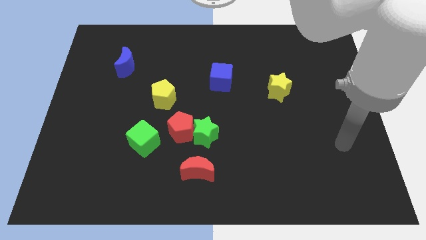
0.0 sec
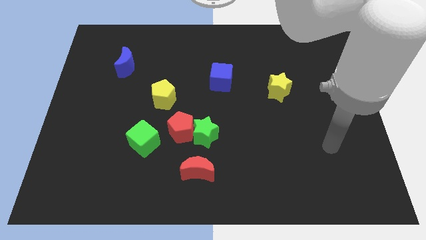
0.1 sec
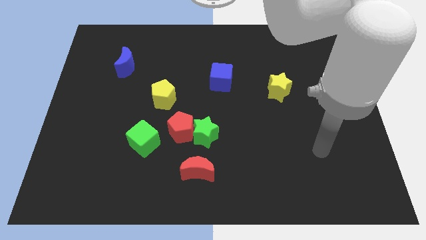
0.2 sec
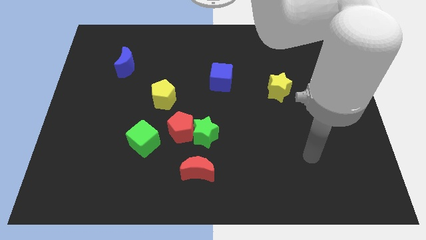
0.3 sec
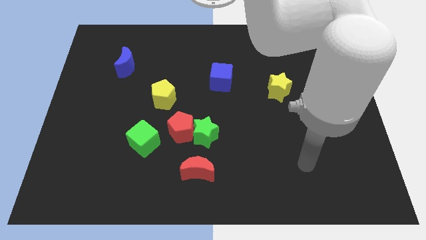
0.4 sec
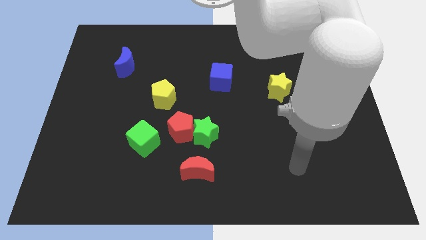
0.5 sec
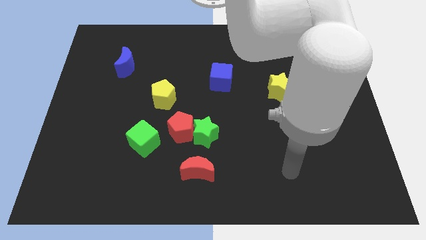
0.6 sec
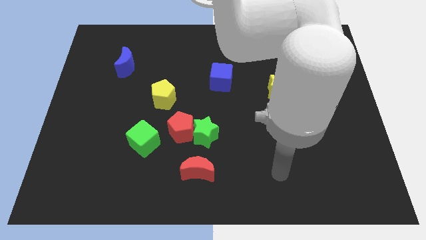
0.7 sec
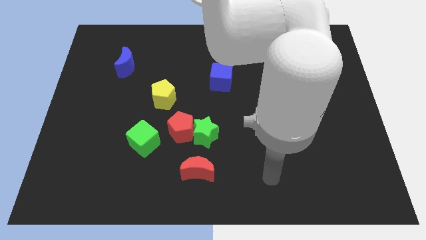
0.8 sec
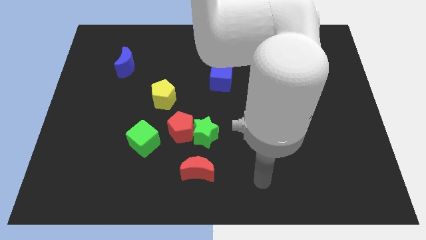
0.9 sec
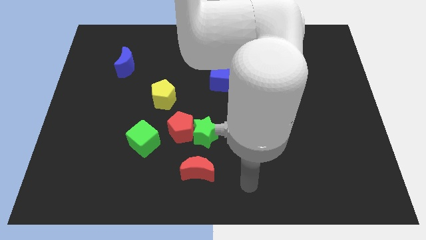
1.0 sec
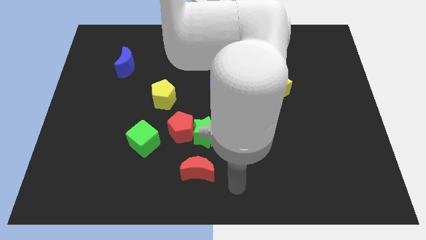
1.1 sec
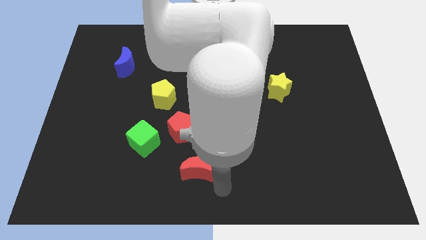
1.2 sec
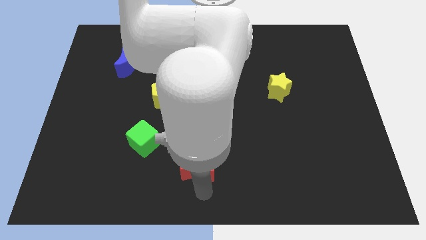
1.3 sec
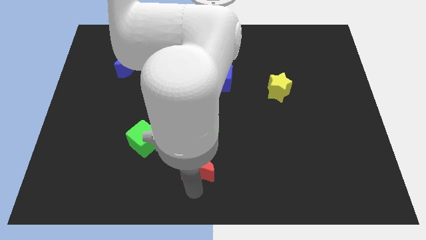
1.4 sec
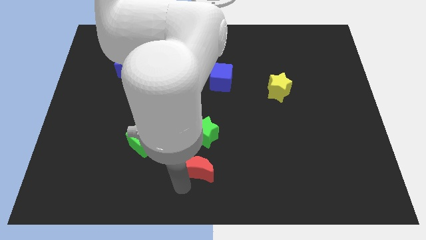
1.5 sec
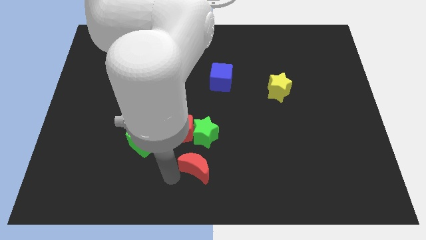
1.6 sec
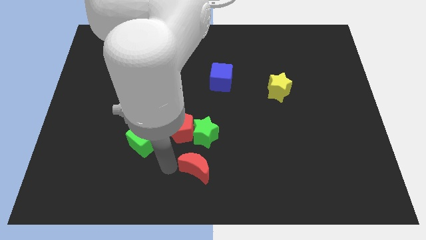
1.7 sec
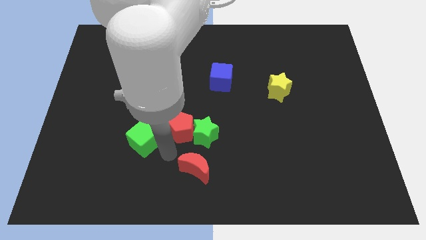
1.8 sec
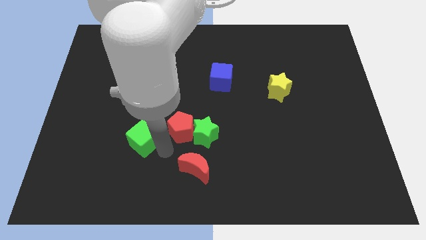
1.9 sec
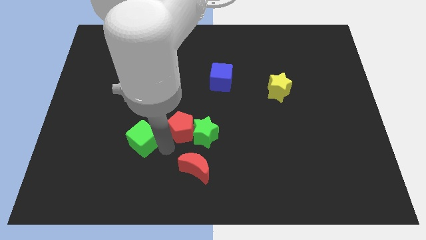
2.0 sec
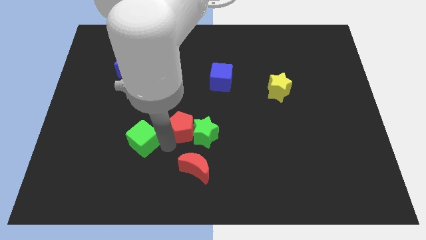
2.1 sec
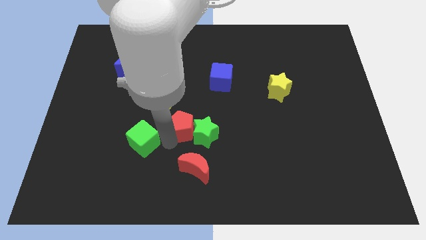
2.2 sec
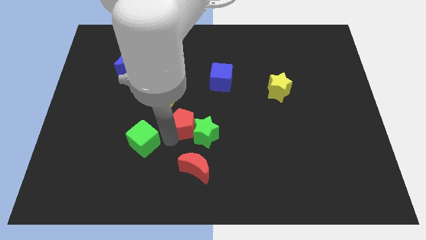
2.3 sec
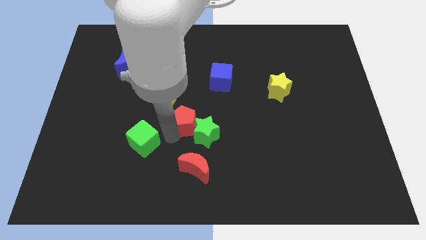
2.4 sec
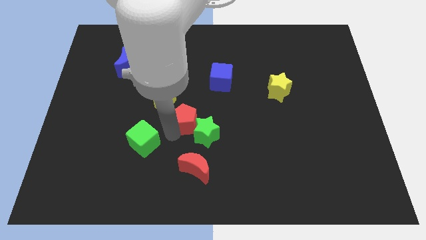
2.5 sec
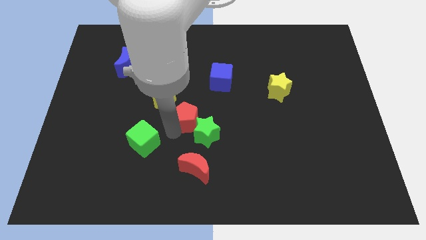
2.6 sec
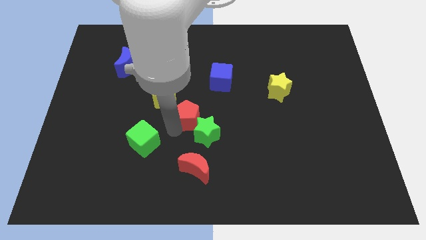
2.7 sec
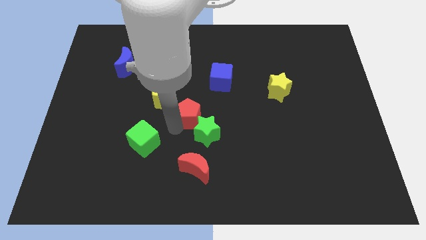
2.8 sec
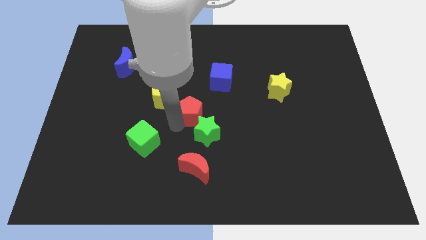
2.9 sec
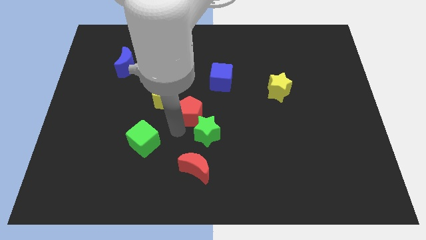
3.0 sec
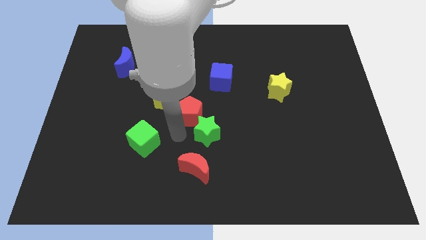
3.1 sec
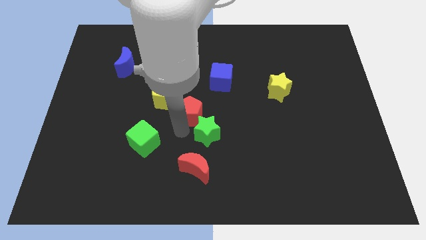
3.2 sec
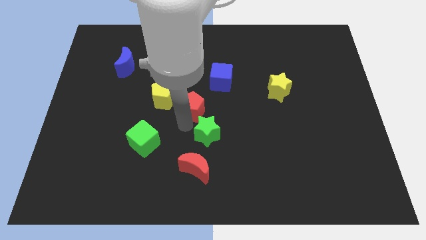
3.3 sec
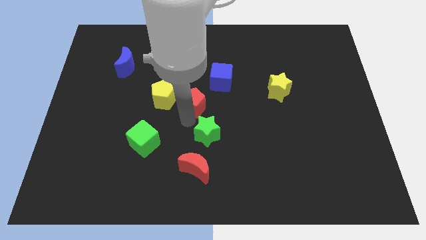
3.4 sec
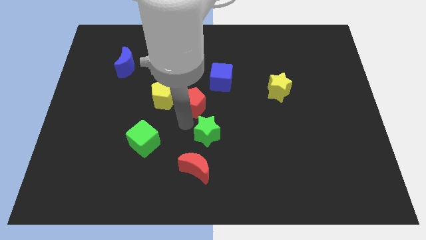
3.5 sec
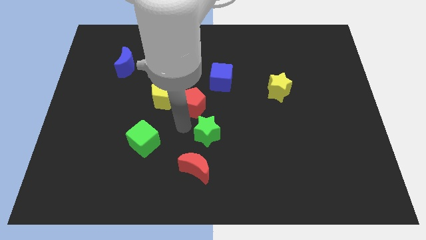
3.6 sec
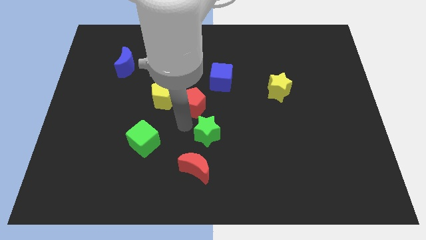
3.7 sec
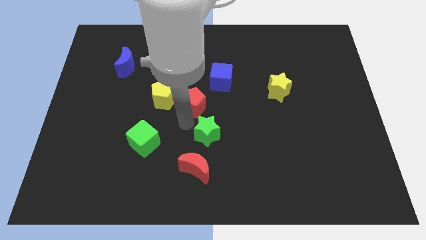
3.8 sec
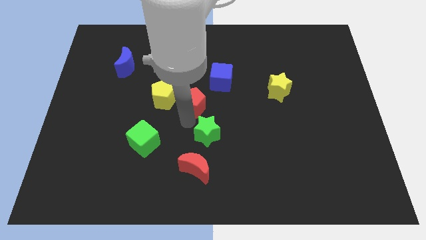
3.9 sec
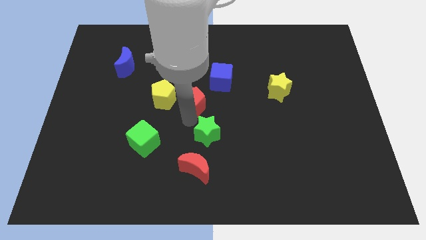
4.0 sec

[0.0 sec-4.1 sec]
pull the red pentagon apart from the green star and green cube

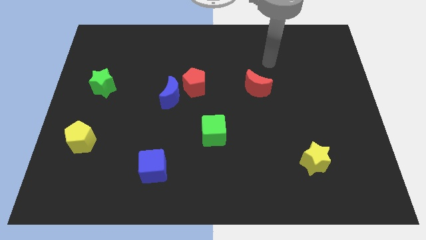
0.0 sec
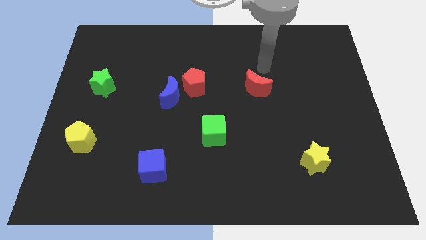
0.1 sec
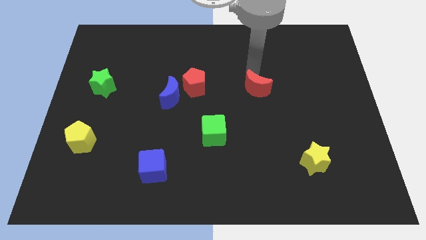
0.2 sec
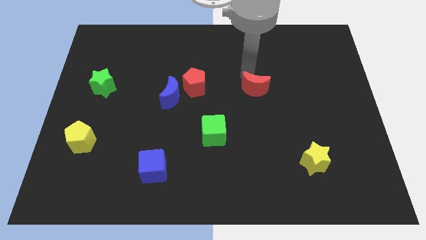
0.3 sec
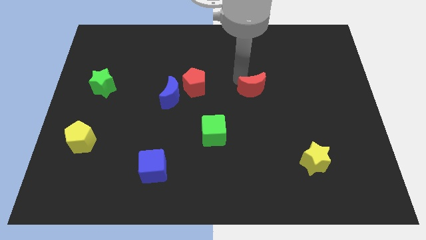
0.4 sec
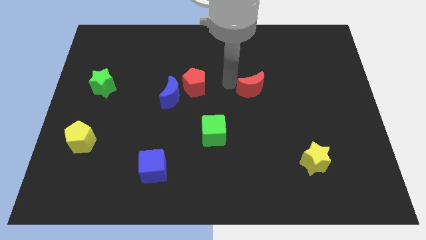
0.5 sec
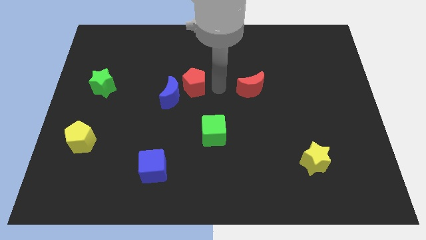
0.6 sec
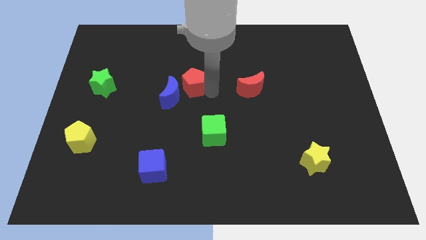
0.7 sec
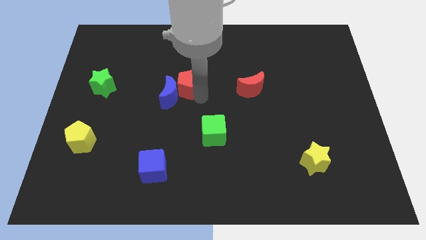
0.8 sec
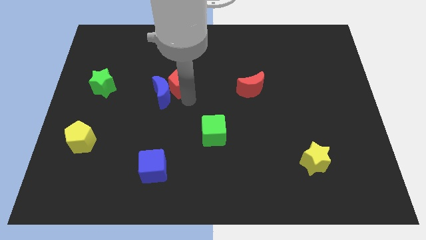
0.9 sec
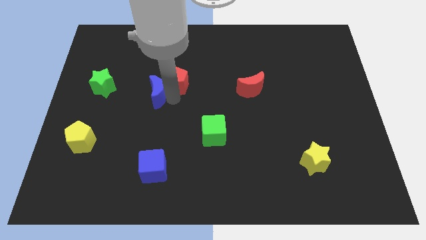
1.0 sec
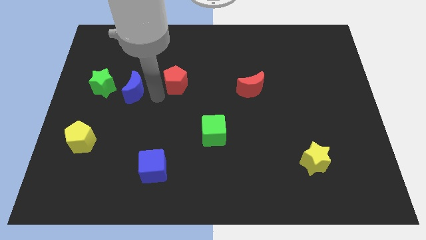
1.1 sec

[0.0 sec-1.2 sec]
move the red pentagon away from the blue moon

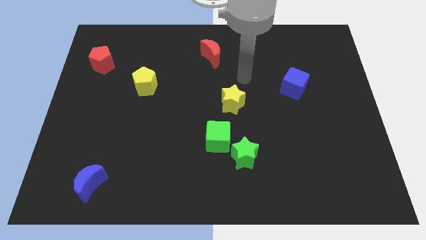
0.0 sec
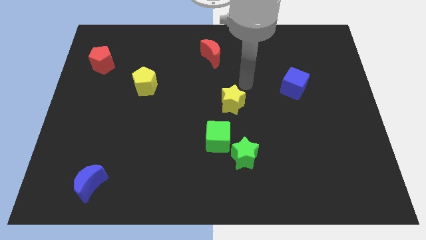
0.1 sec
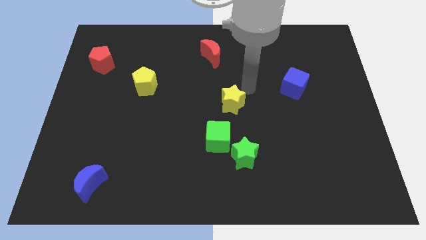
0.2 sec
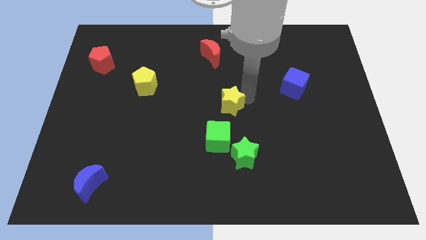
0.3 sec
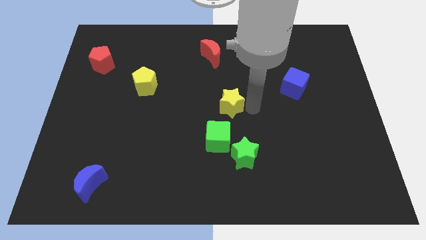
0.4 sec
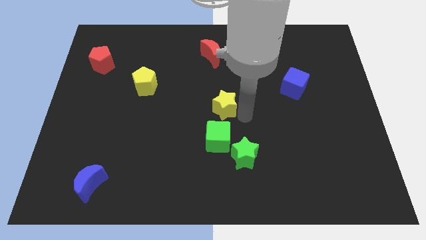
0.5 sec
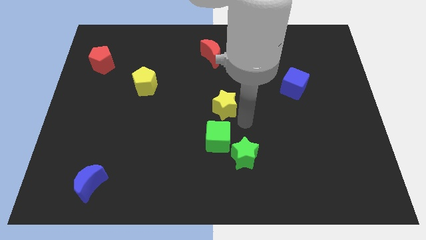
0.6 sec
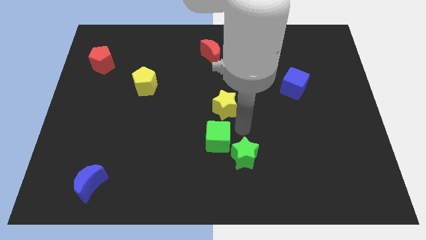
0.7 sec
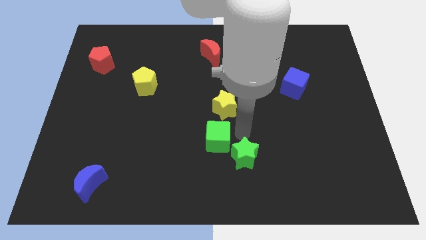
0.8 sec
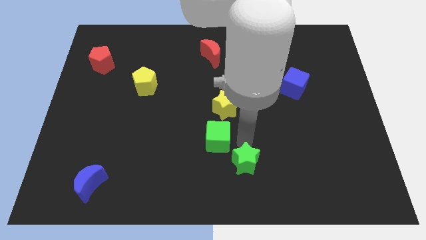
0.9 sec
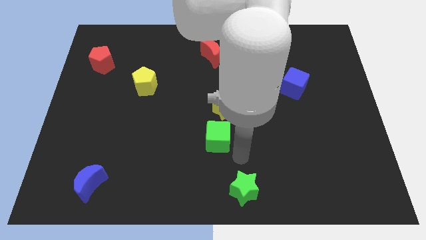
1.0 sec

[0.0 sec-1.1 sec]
move the green cube away from the green star

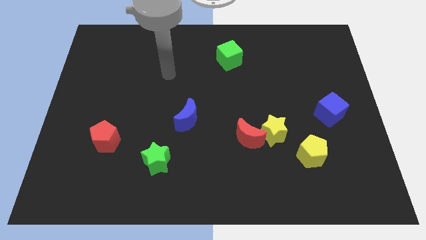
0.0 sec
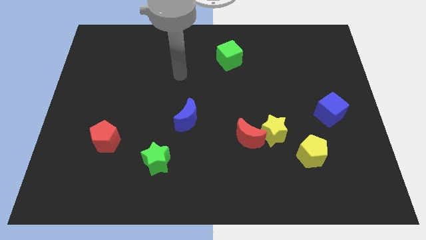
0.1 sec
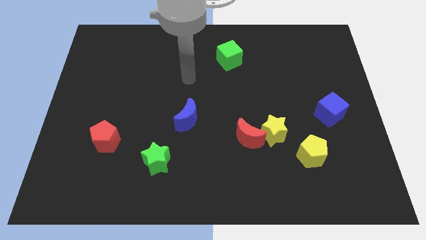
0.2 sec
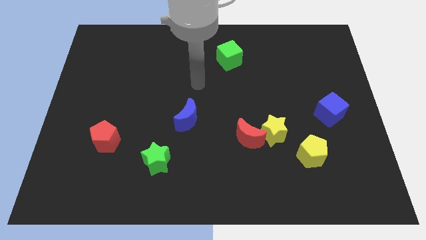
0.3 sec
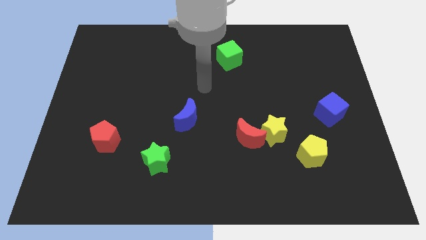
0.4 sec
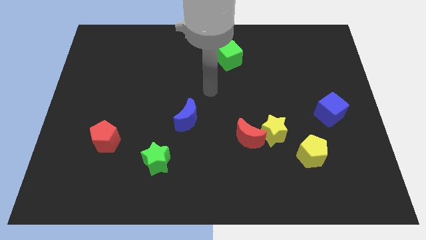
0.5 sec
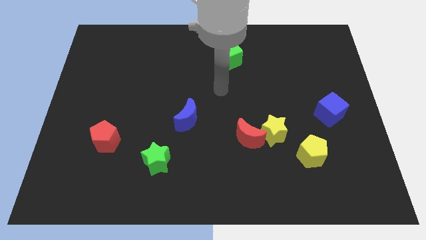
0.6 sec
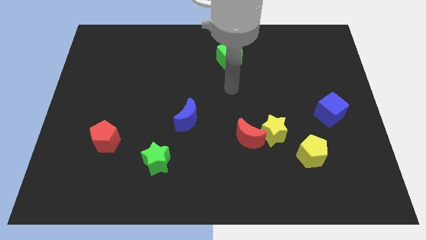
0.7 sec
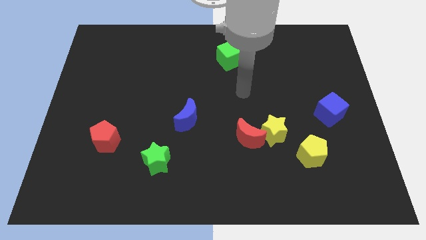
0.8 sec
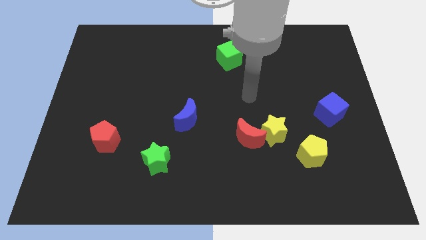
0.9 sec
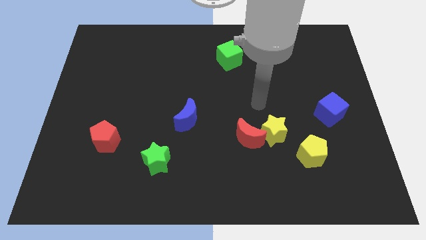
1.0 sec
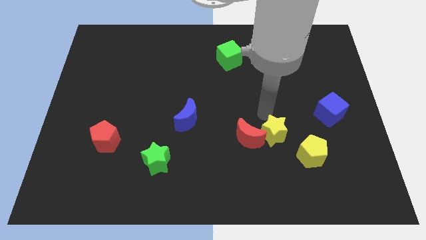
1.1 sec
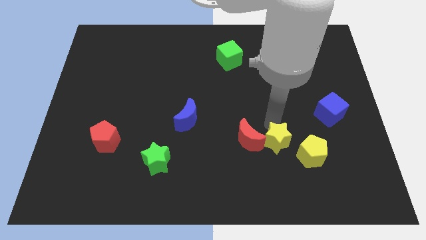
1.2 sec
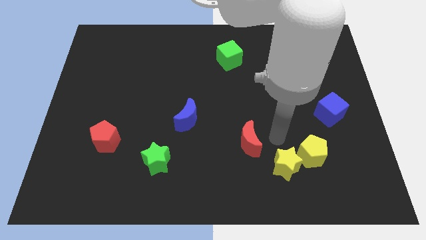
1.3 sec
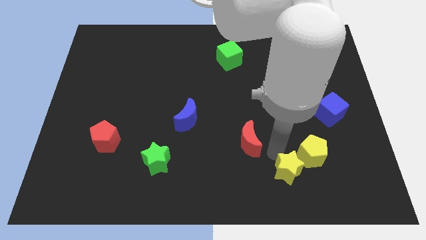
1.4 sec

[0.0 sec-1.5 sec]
separate the red moon from the yellow star

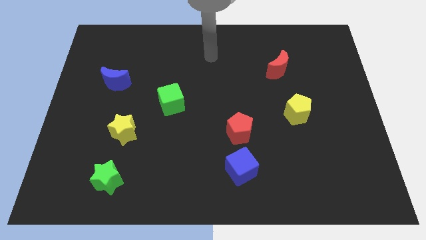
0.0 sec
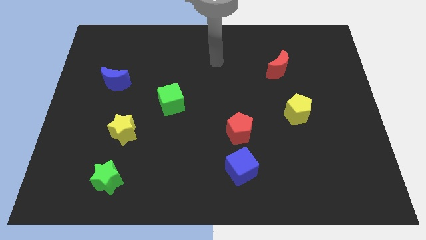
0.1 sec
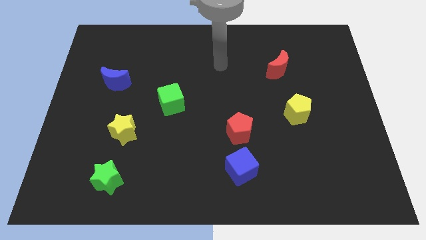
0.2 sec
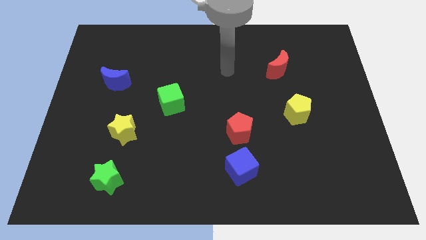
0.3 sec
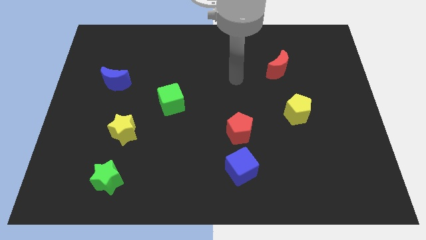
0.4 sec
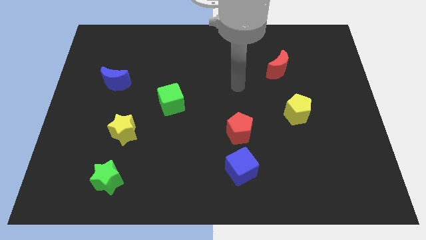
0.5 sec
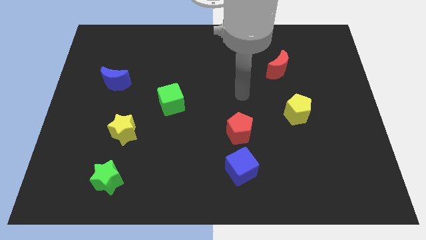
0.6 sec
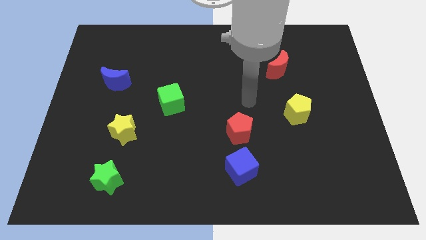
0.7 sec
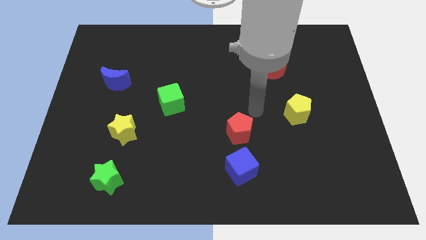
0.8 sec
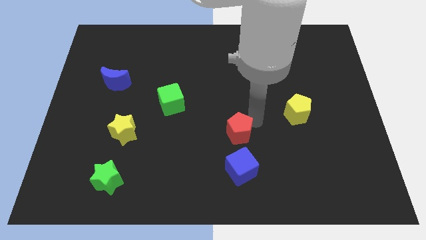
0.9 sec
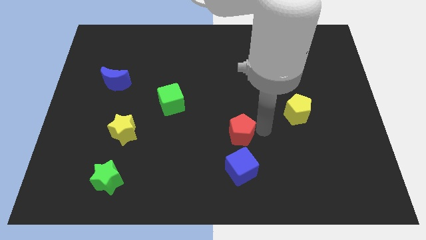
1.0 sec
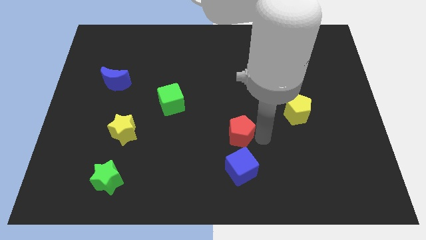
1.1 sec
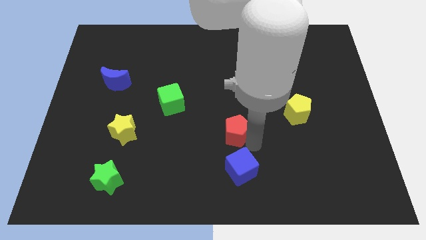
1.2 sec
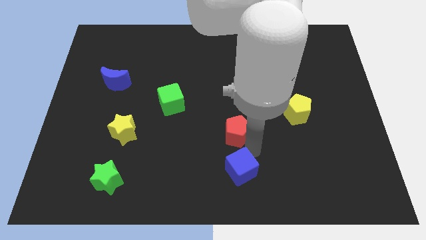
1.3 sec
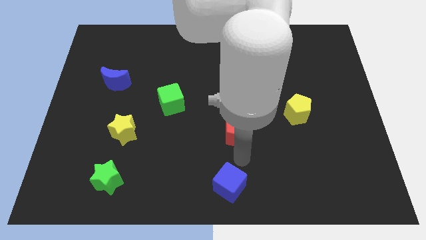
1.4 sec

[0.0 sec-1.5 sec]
pull the red pentagon apart from the blue cube
